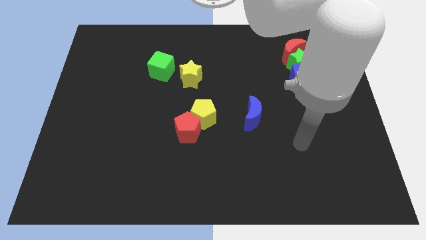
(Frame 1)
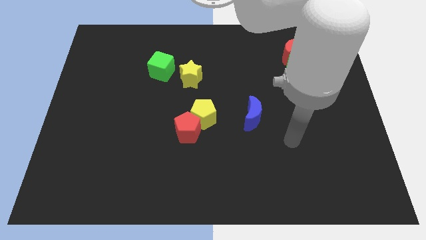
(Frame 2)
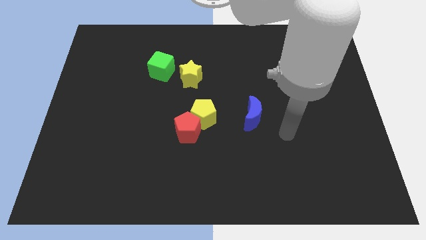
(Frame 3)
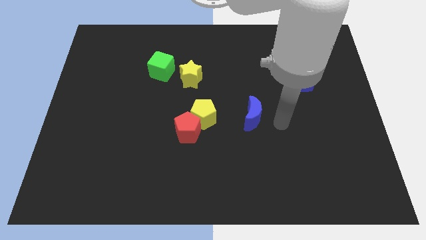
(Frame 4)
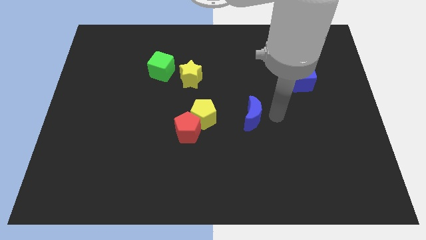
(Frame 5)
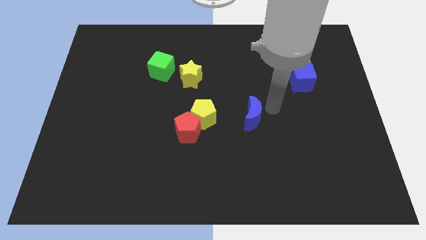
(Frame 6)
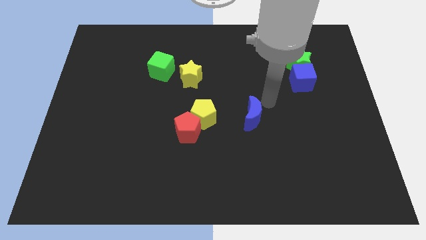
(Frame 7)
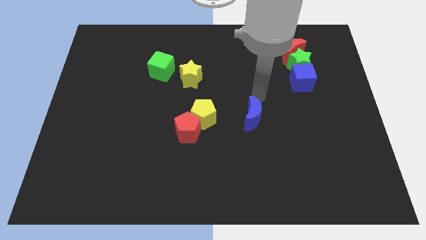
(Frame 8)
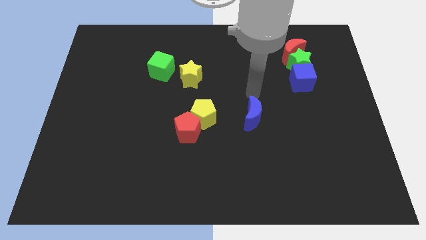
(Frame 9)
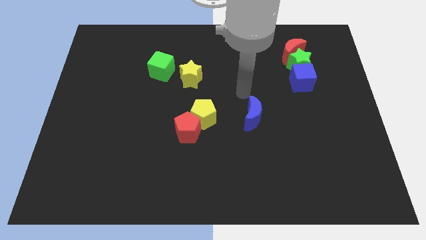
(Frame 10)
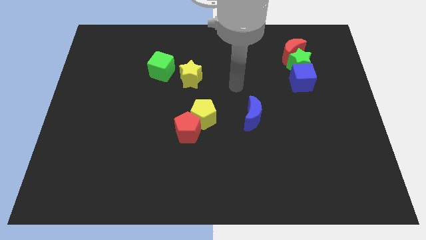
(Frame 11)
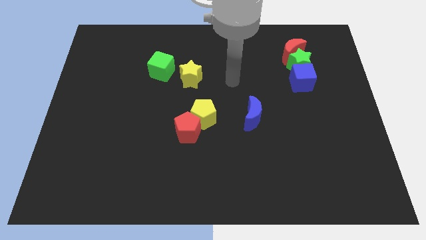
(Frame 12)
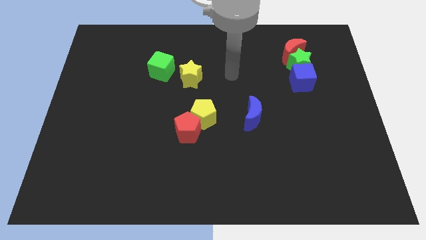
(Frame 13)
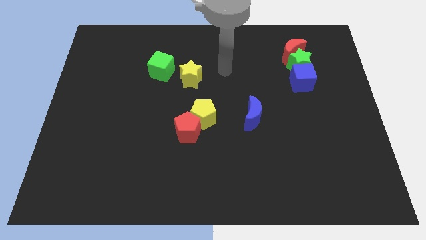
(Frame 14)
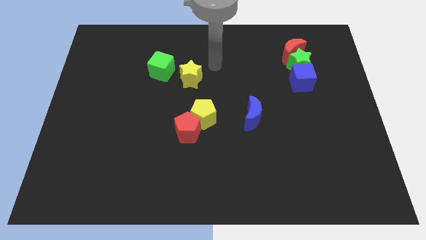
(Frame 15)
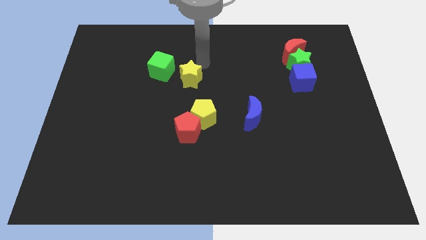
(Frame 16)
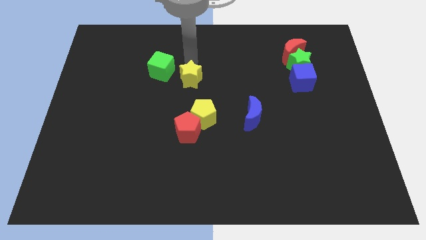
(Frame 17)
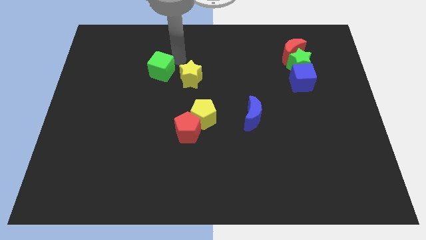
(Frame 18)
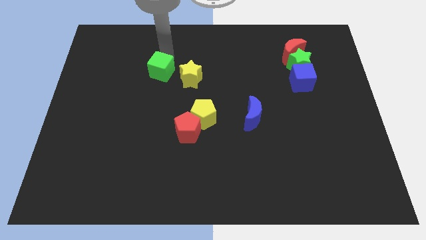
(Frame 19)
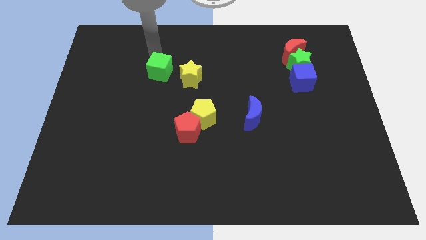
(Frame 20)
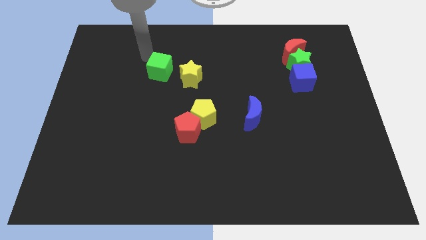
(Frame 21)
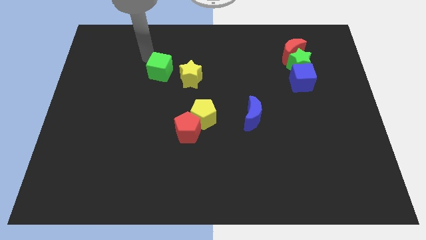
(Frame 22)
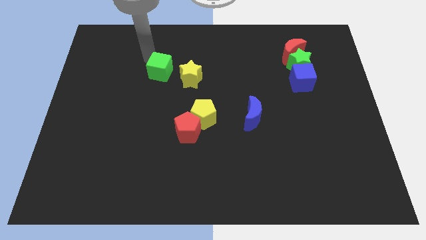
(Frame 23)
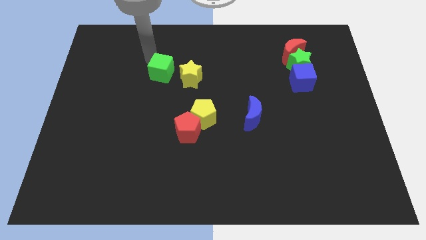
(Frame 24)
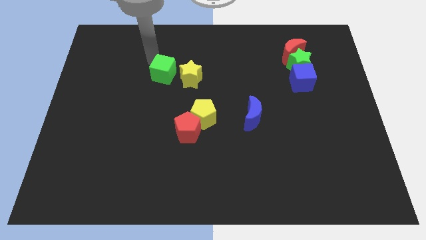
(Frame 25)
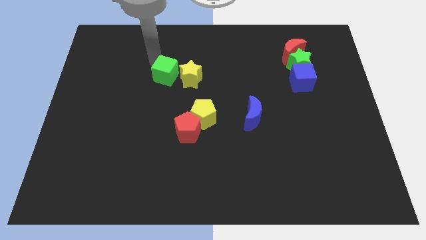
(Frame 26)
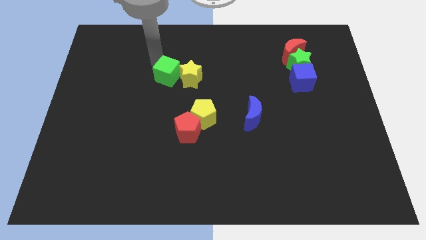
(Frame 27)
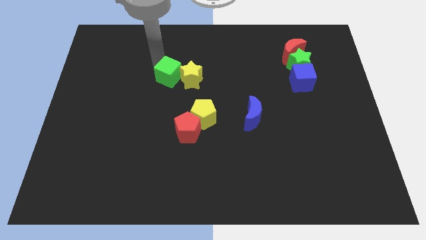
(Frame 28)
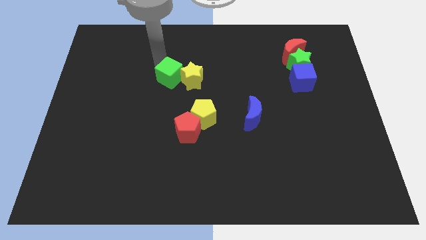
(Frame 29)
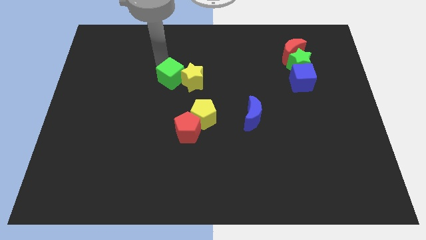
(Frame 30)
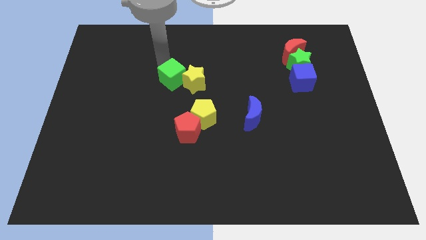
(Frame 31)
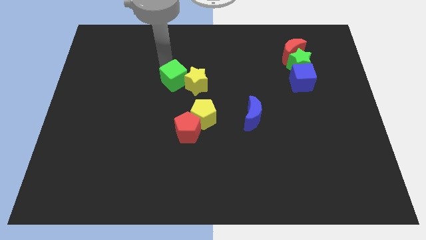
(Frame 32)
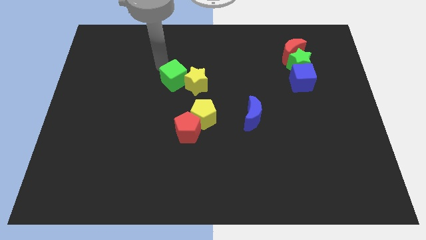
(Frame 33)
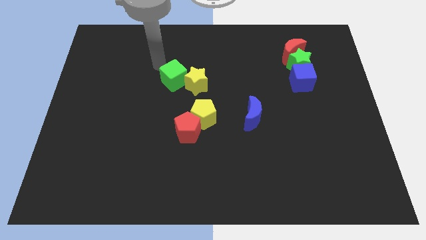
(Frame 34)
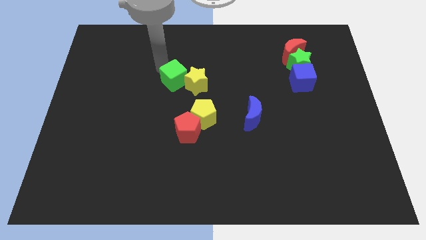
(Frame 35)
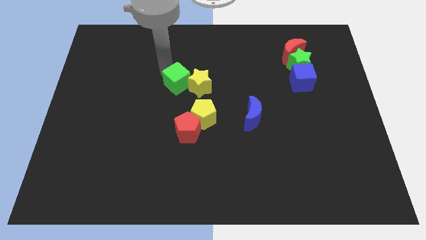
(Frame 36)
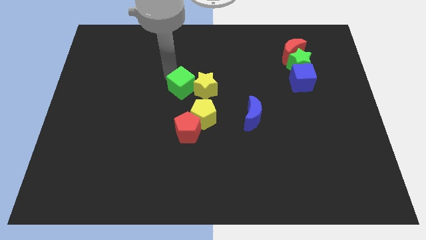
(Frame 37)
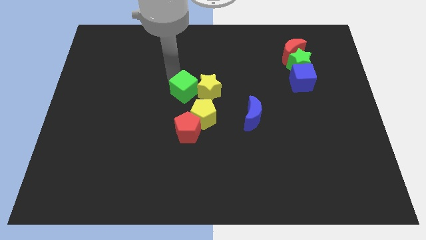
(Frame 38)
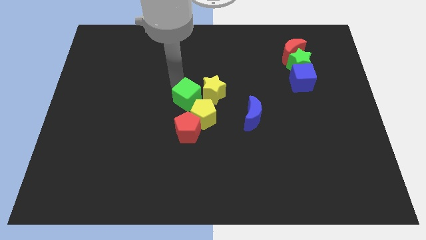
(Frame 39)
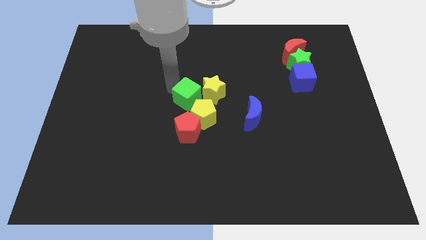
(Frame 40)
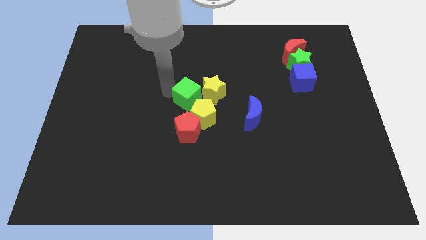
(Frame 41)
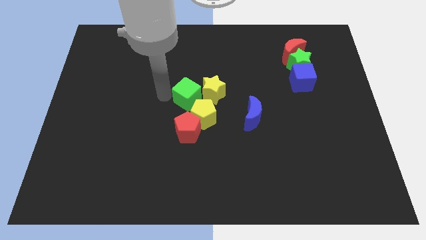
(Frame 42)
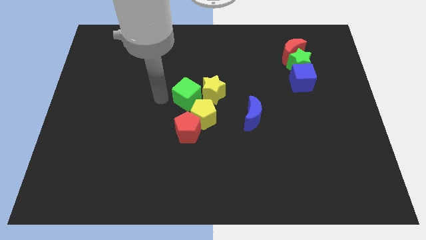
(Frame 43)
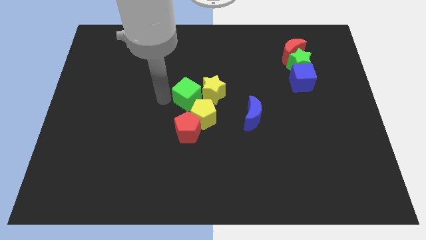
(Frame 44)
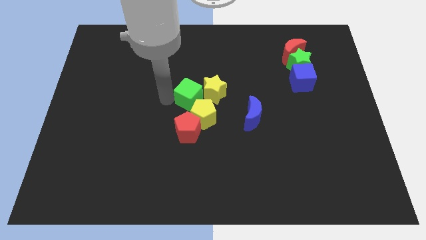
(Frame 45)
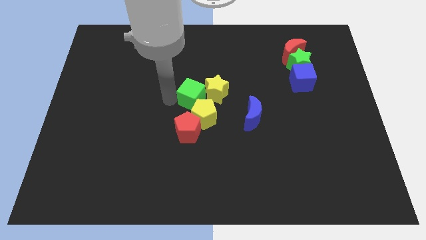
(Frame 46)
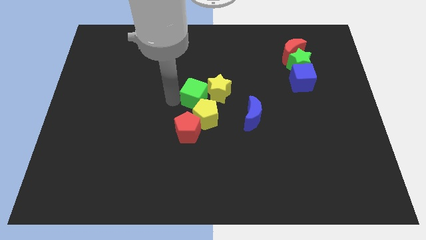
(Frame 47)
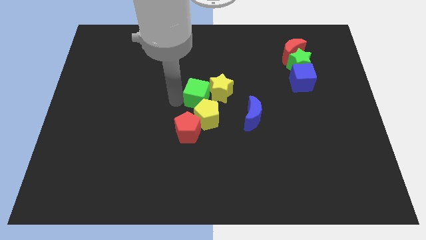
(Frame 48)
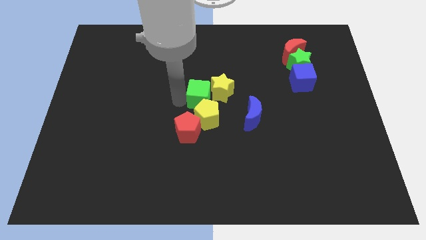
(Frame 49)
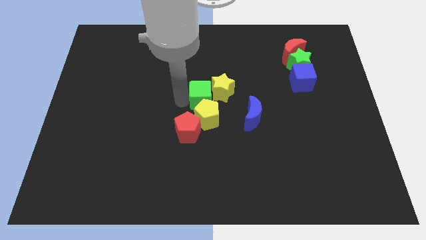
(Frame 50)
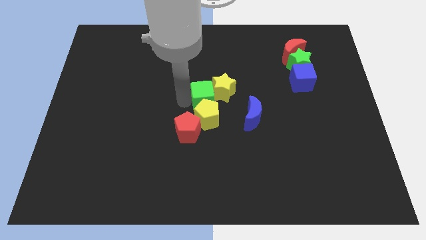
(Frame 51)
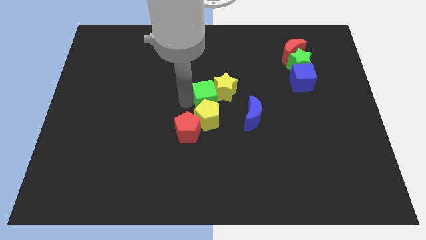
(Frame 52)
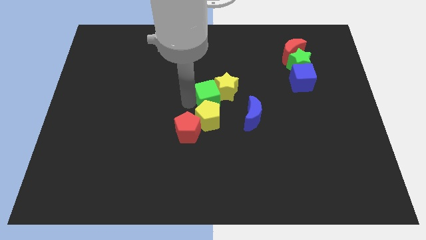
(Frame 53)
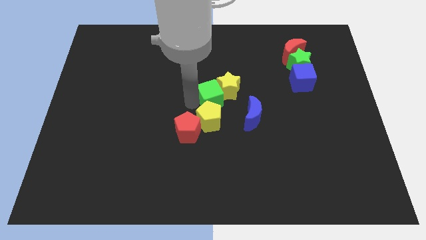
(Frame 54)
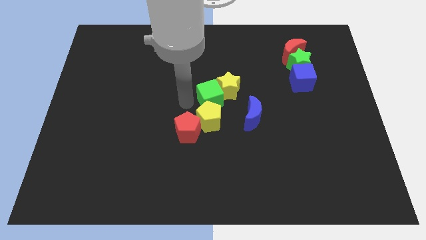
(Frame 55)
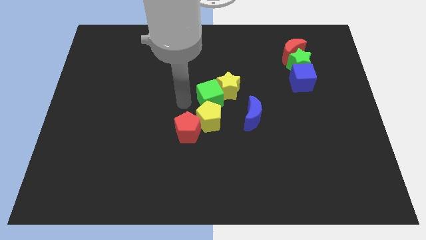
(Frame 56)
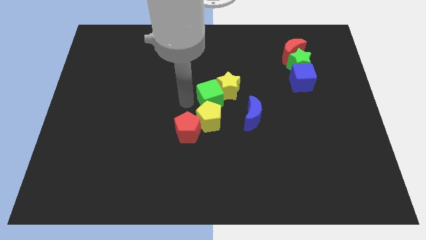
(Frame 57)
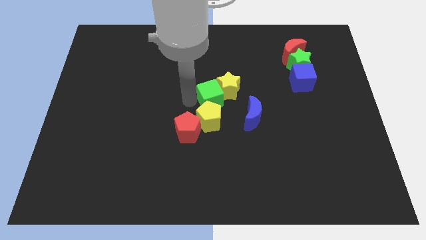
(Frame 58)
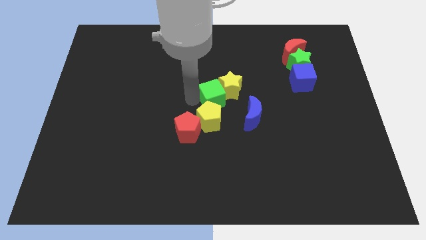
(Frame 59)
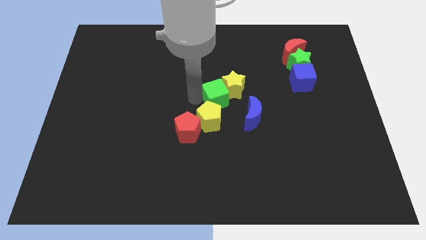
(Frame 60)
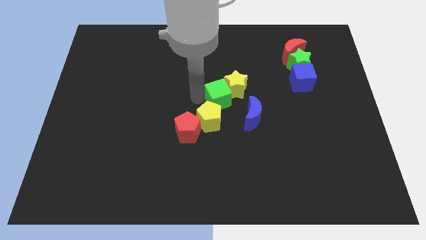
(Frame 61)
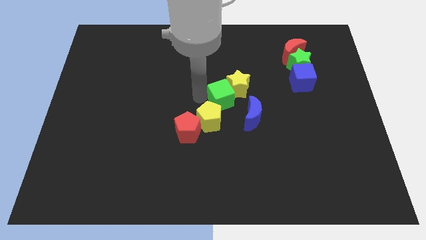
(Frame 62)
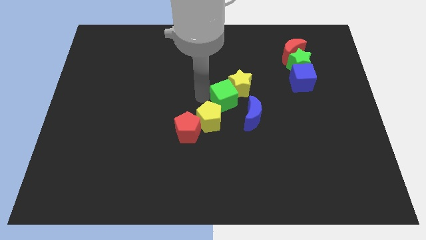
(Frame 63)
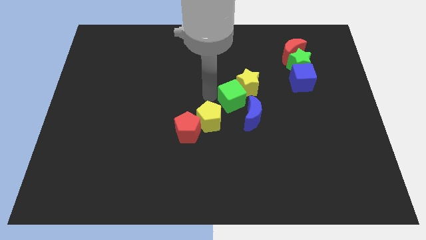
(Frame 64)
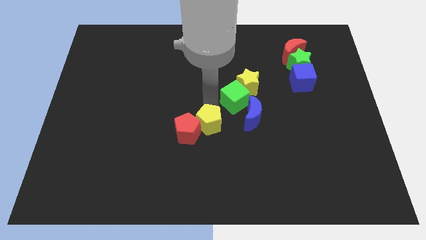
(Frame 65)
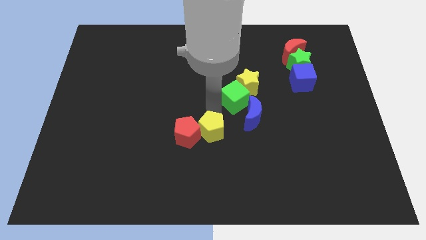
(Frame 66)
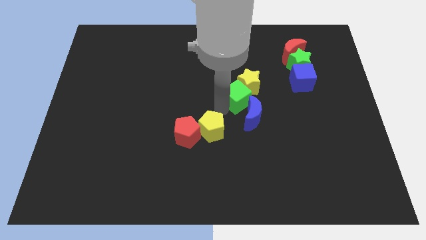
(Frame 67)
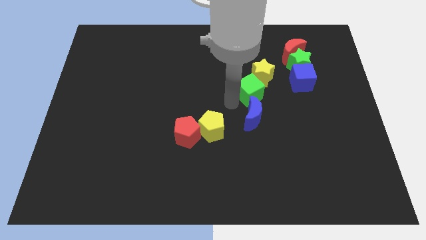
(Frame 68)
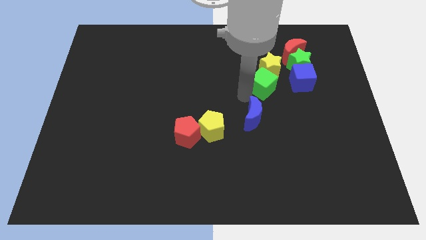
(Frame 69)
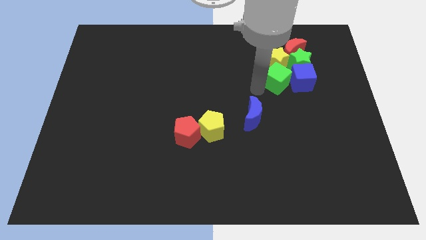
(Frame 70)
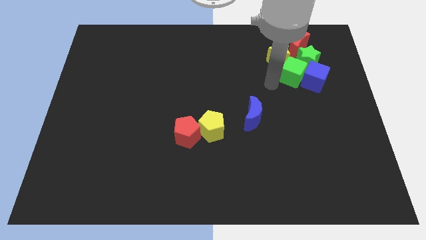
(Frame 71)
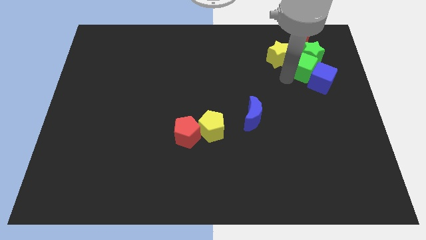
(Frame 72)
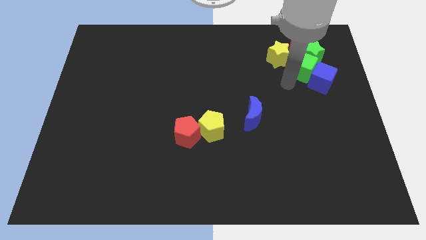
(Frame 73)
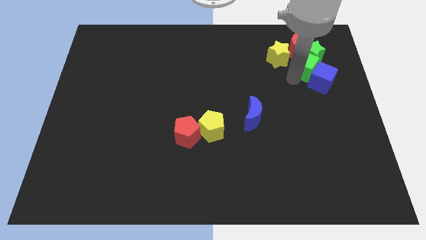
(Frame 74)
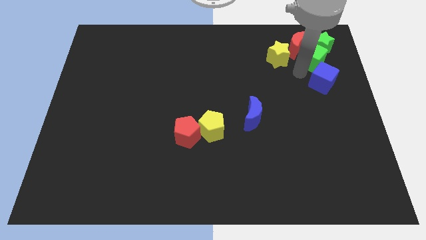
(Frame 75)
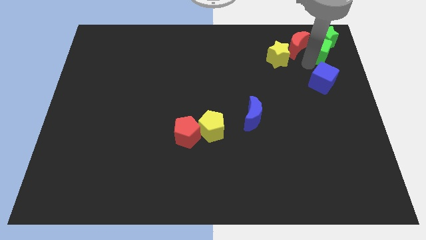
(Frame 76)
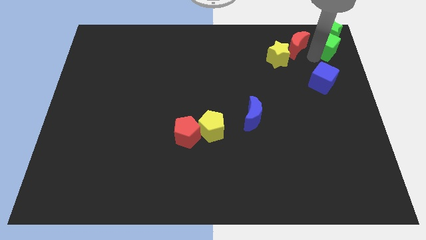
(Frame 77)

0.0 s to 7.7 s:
slide the green cube to the top right of the board

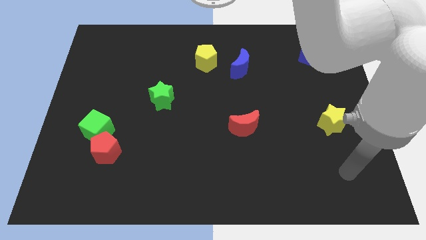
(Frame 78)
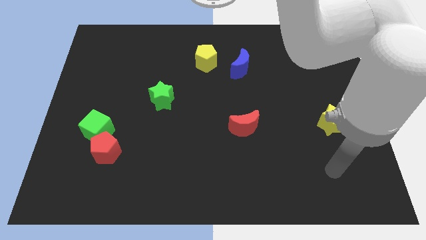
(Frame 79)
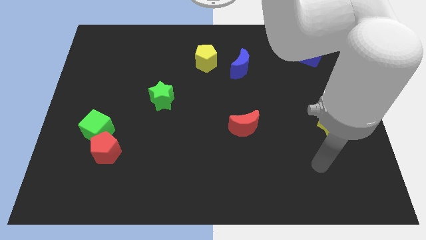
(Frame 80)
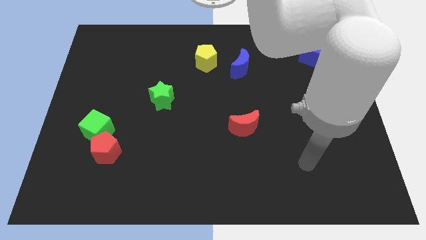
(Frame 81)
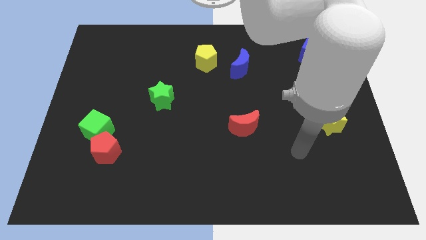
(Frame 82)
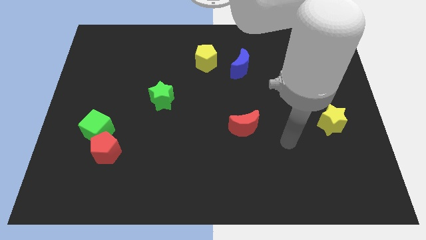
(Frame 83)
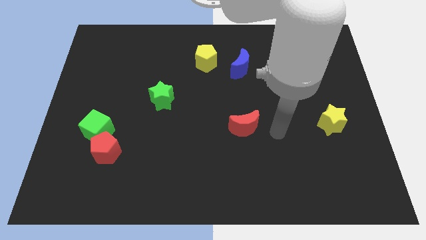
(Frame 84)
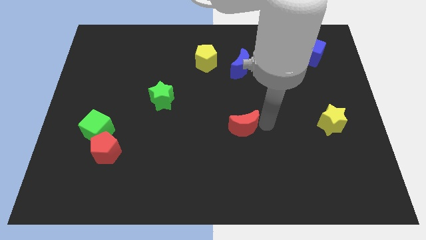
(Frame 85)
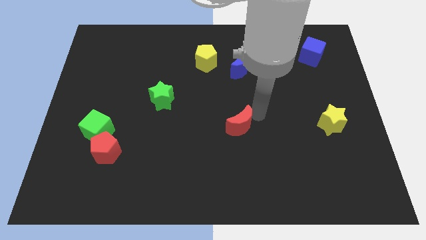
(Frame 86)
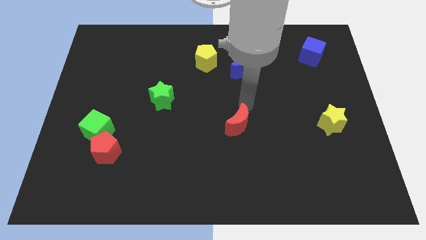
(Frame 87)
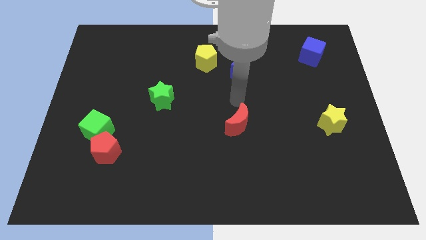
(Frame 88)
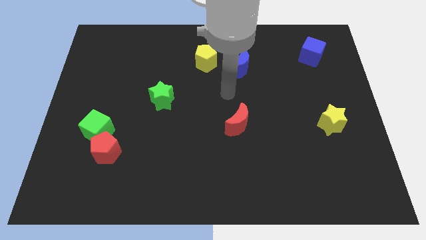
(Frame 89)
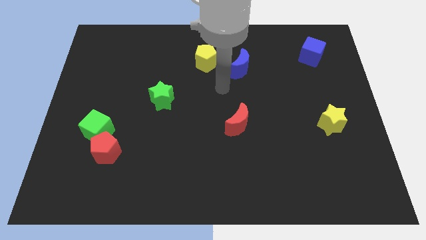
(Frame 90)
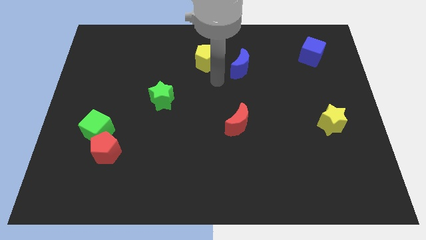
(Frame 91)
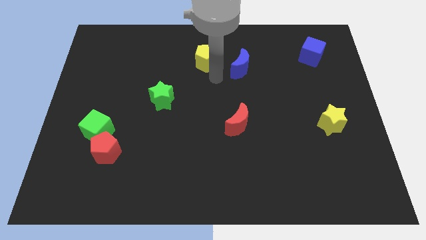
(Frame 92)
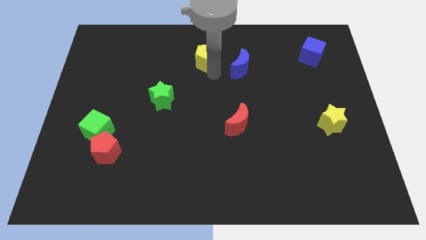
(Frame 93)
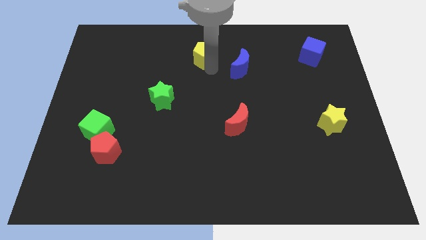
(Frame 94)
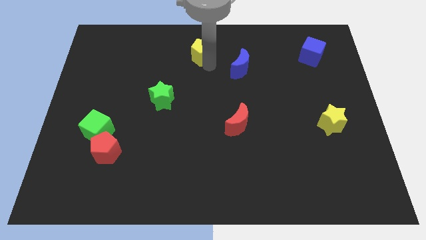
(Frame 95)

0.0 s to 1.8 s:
slide the yellow pentagon to the top side
